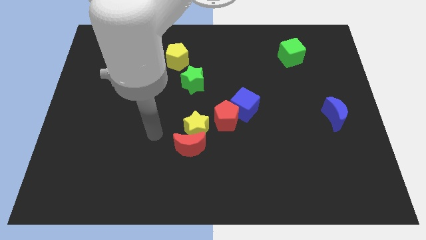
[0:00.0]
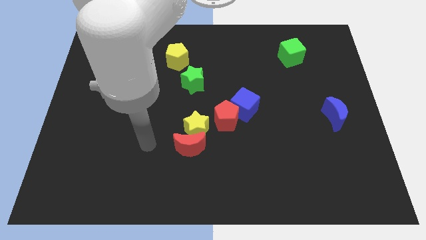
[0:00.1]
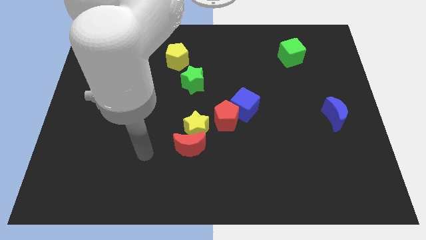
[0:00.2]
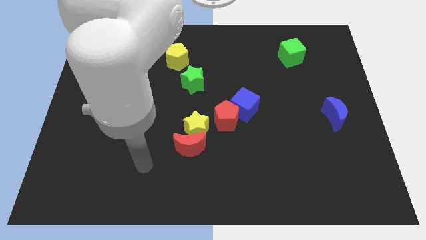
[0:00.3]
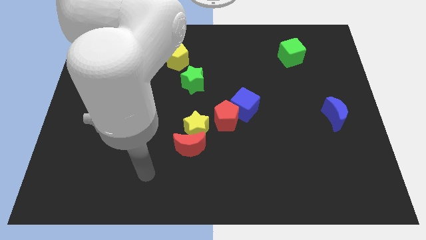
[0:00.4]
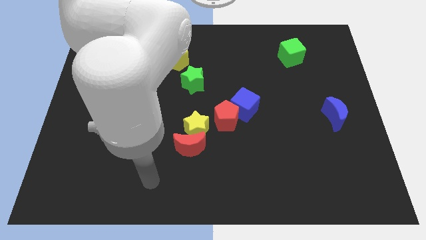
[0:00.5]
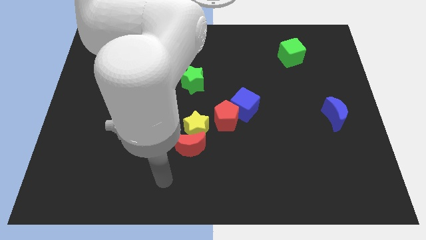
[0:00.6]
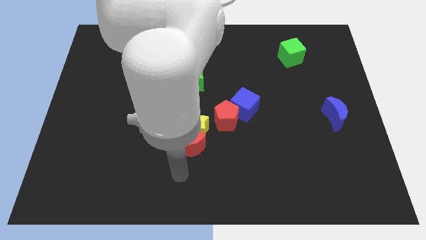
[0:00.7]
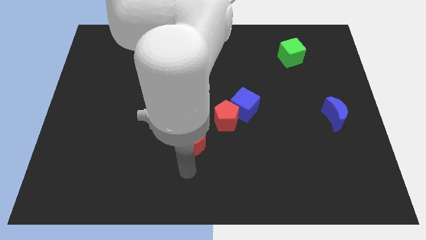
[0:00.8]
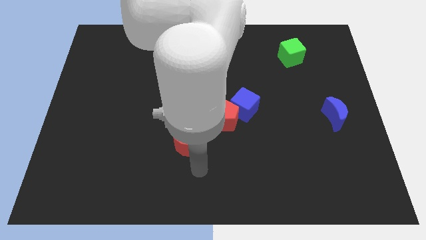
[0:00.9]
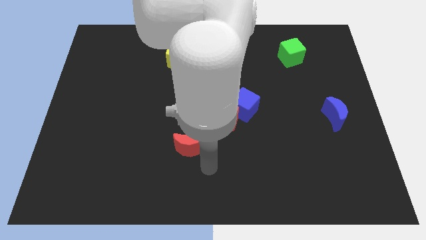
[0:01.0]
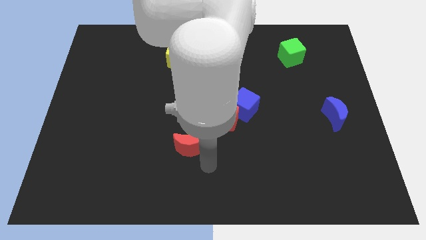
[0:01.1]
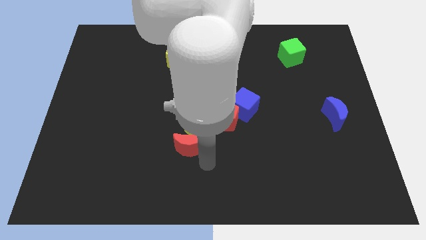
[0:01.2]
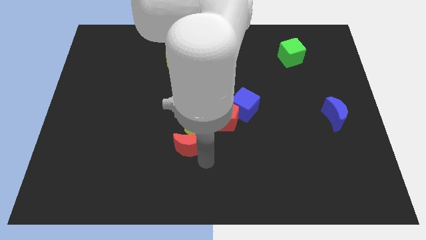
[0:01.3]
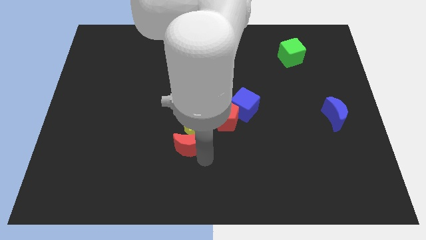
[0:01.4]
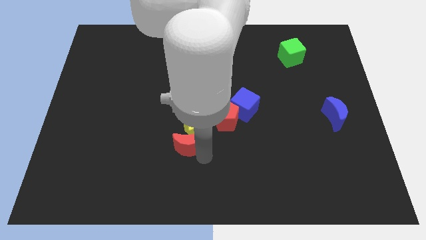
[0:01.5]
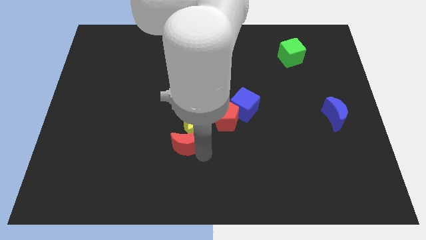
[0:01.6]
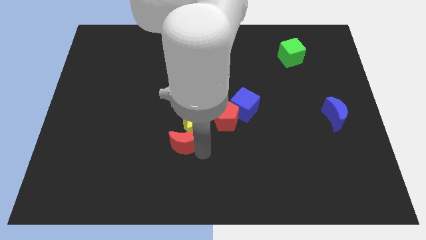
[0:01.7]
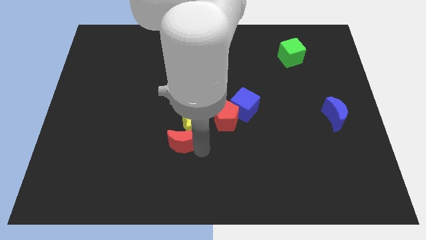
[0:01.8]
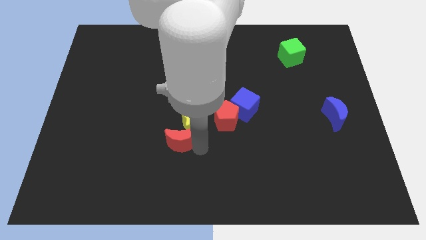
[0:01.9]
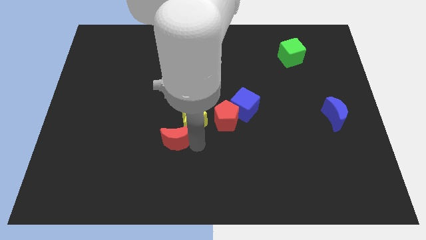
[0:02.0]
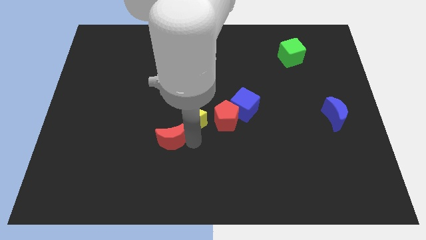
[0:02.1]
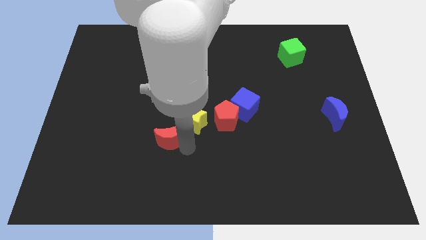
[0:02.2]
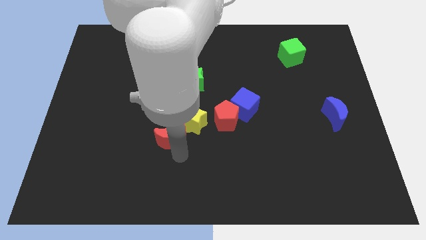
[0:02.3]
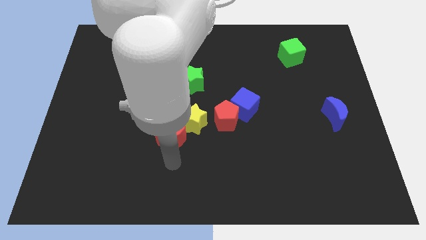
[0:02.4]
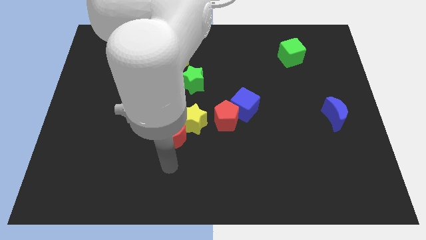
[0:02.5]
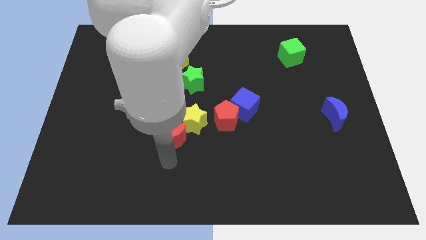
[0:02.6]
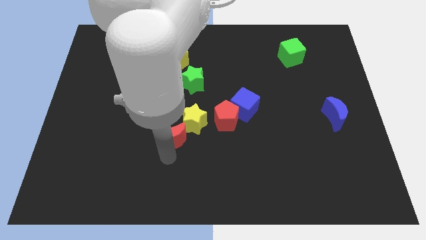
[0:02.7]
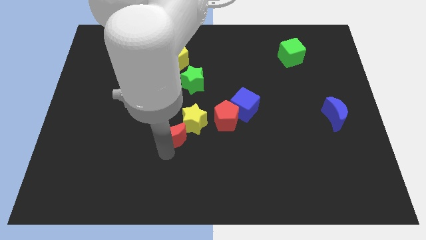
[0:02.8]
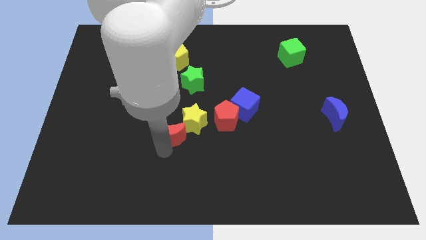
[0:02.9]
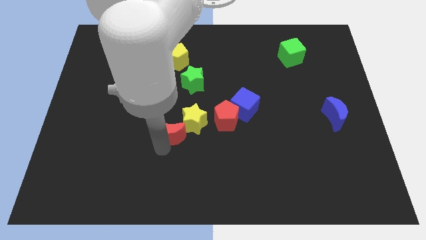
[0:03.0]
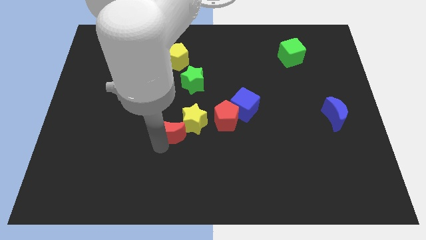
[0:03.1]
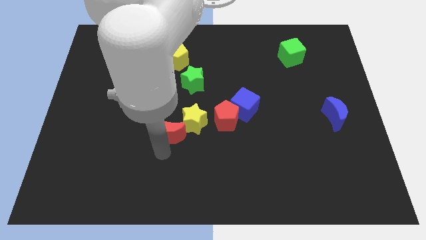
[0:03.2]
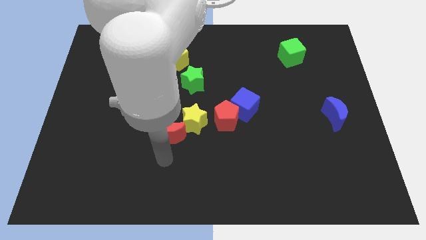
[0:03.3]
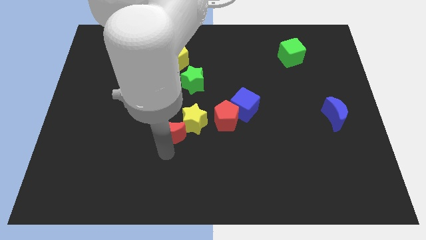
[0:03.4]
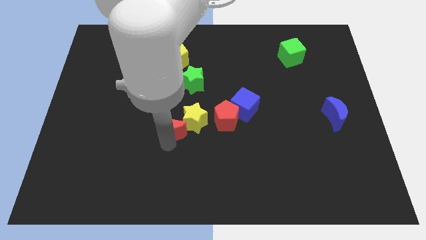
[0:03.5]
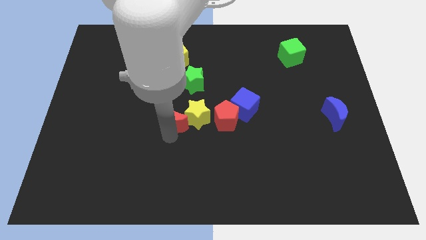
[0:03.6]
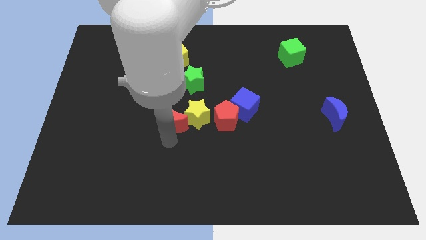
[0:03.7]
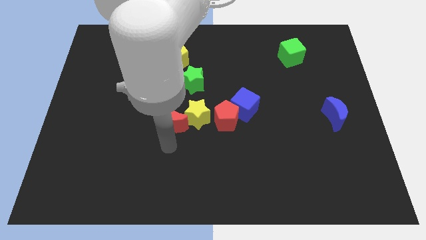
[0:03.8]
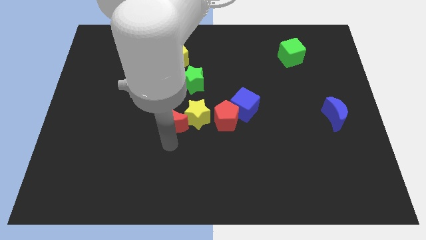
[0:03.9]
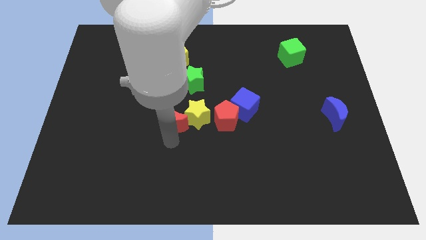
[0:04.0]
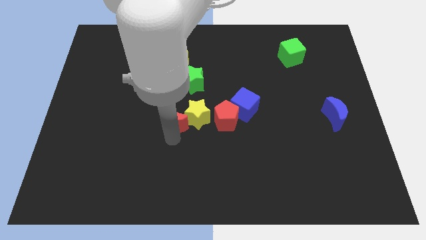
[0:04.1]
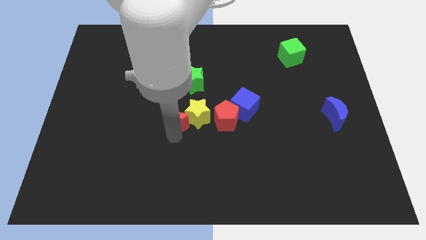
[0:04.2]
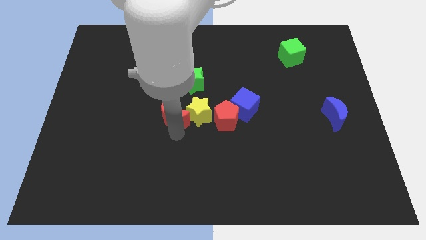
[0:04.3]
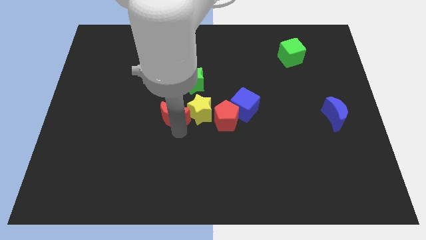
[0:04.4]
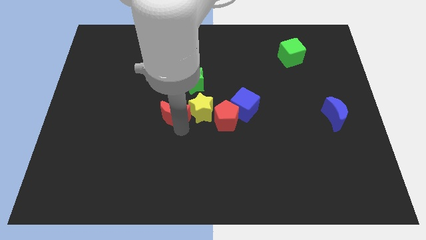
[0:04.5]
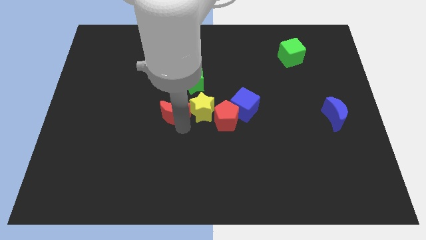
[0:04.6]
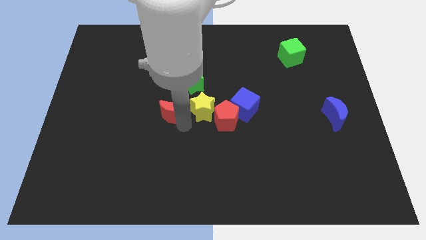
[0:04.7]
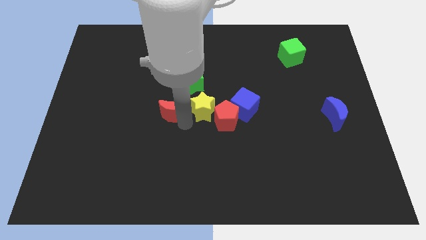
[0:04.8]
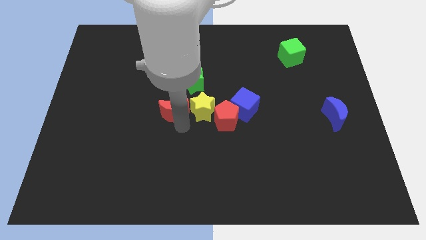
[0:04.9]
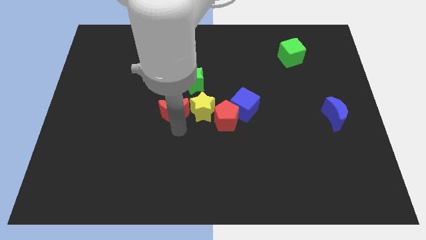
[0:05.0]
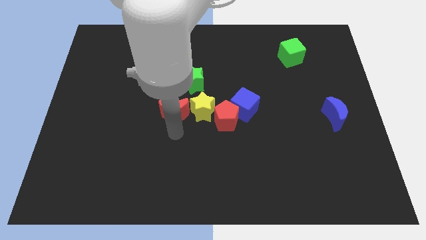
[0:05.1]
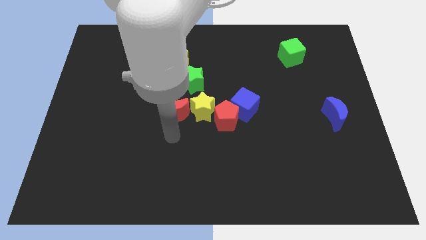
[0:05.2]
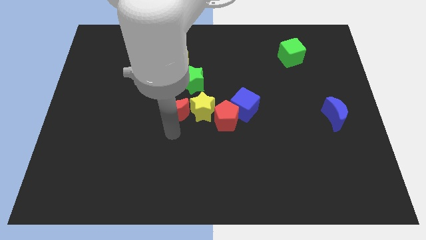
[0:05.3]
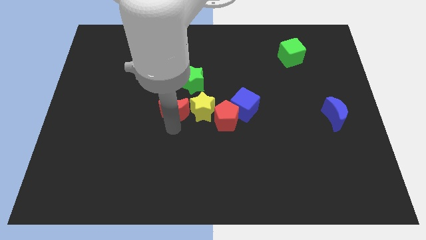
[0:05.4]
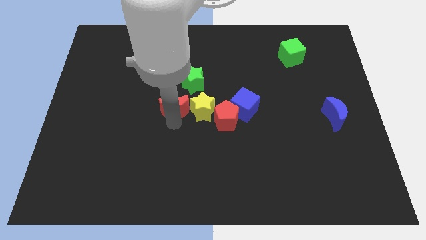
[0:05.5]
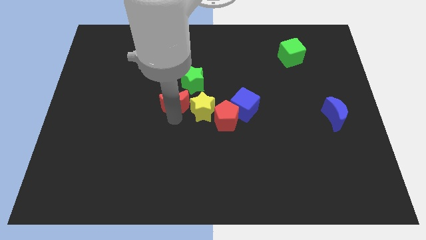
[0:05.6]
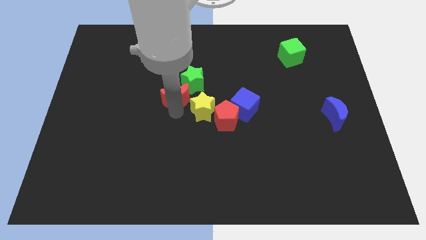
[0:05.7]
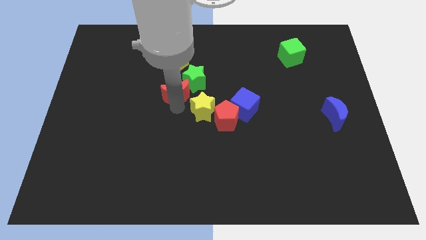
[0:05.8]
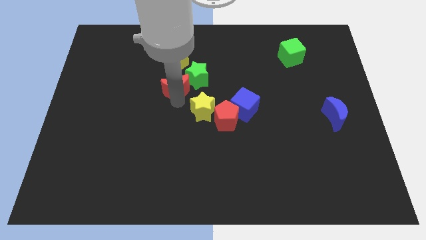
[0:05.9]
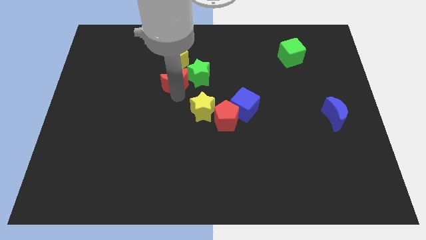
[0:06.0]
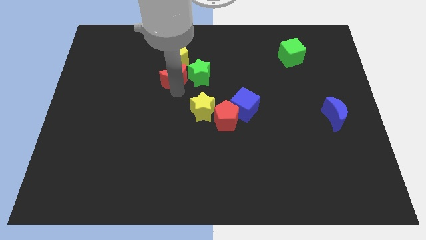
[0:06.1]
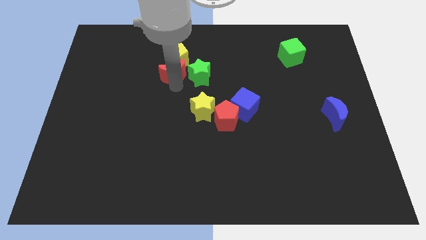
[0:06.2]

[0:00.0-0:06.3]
push the red moon close to the yellow pentagon

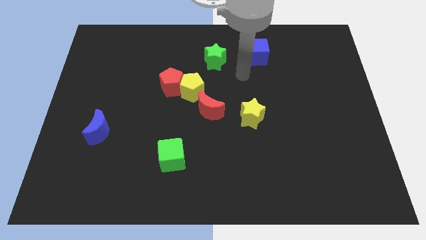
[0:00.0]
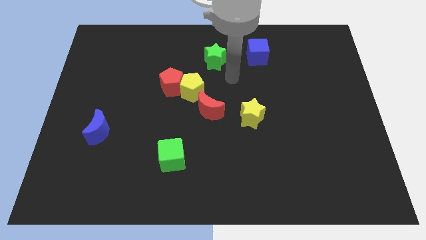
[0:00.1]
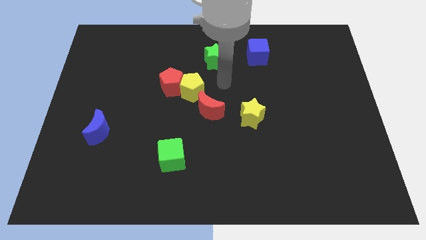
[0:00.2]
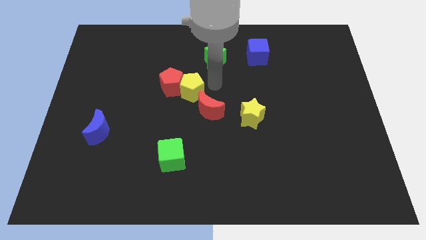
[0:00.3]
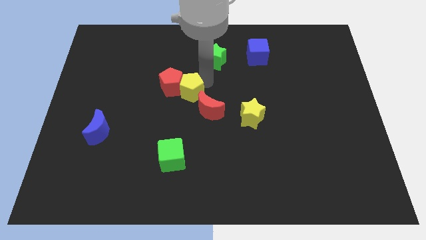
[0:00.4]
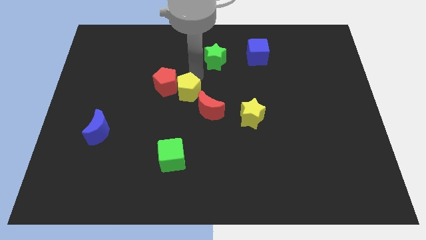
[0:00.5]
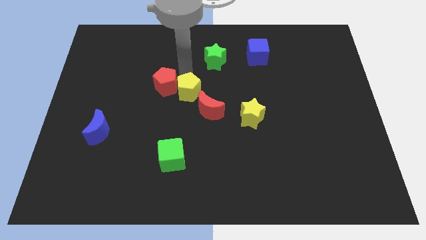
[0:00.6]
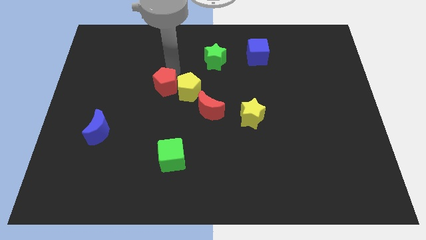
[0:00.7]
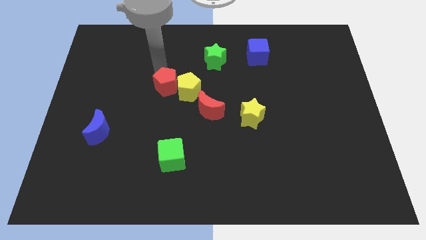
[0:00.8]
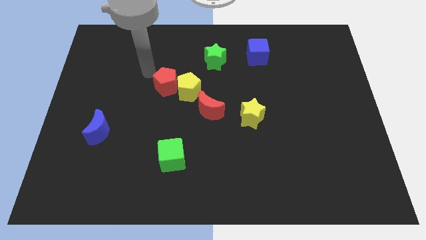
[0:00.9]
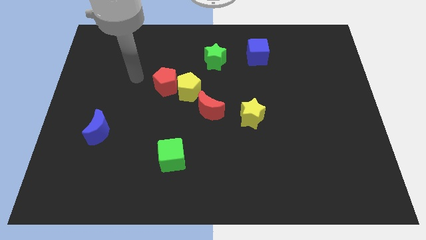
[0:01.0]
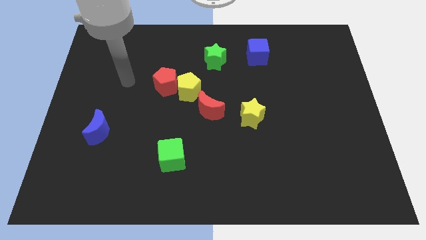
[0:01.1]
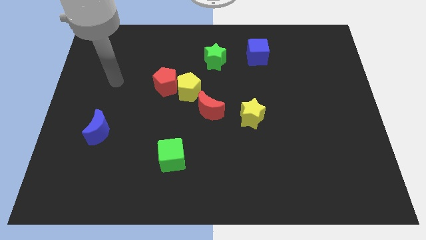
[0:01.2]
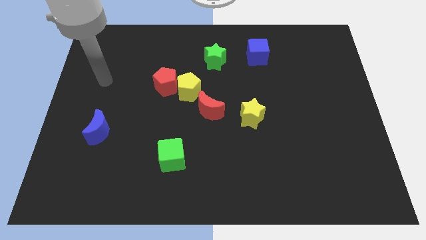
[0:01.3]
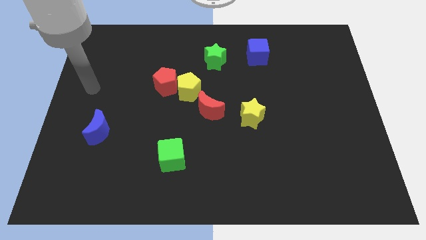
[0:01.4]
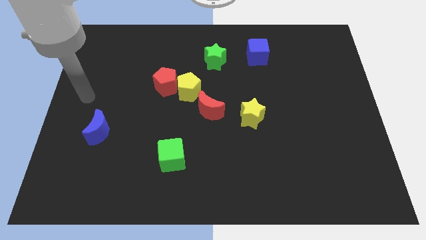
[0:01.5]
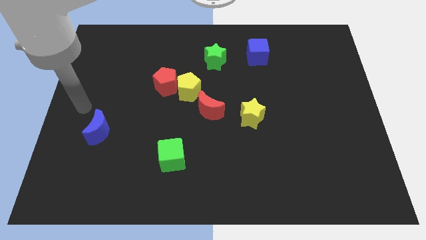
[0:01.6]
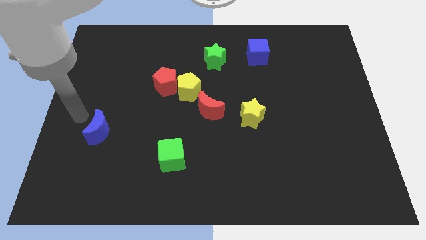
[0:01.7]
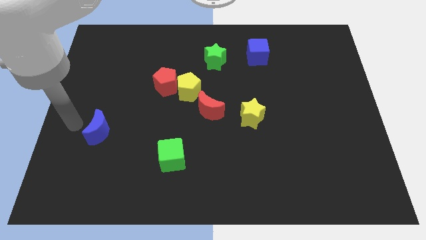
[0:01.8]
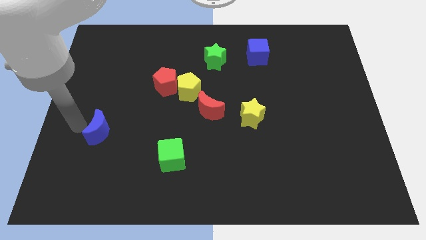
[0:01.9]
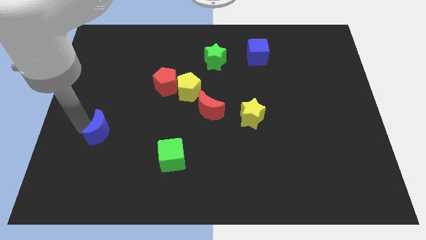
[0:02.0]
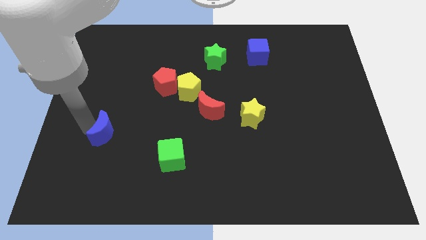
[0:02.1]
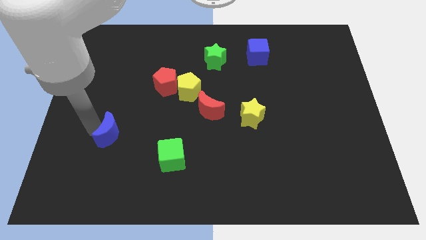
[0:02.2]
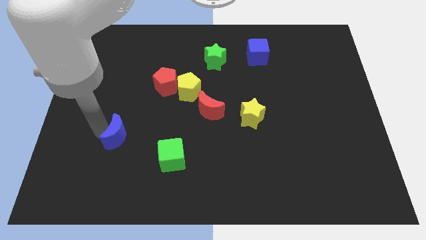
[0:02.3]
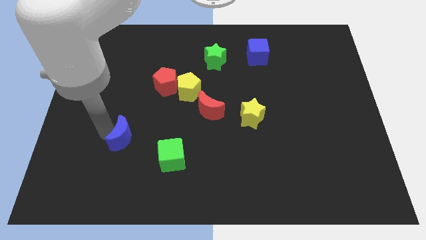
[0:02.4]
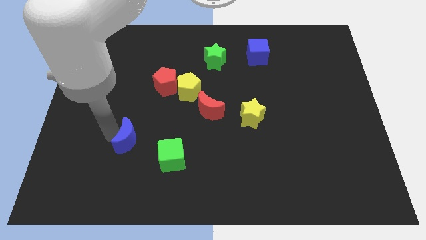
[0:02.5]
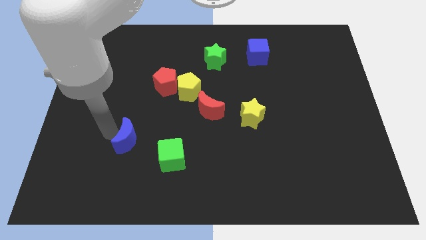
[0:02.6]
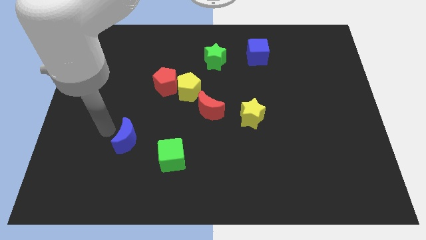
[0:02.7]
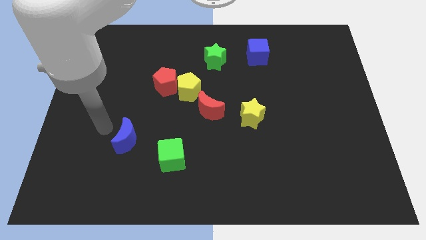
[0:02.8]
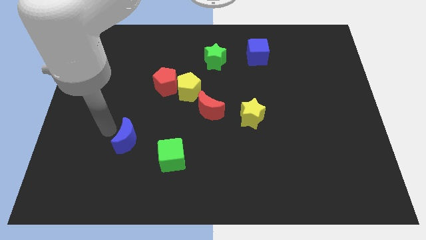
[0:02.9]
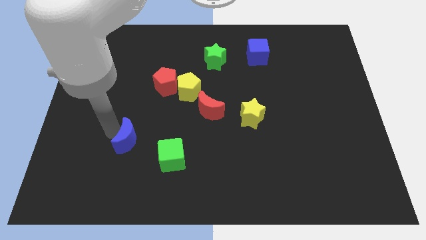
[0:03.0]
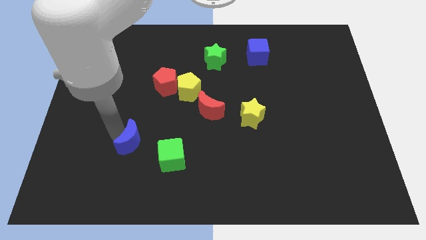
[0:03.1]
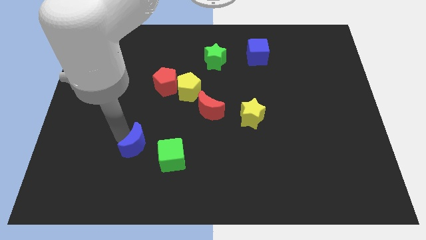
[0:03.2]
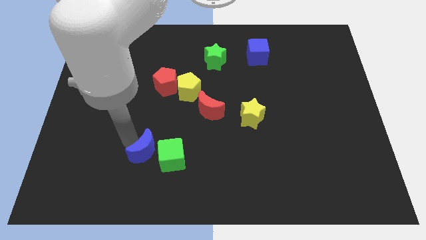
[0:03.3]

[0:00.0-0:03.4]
move the blue moon next to the green cube
